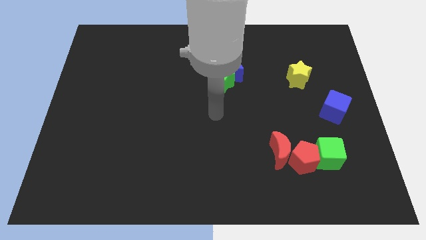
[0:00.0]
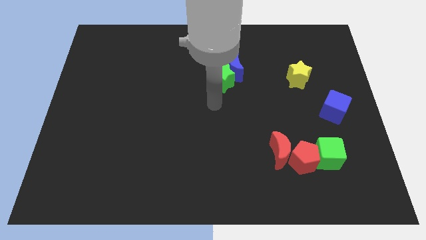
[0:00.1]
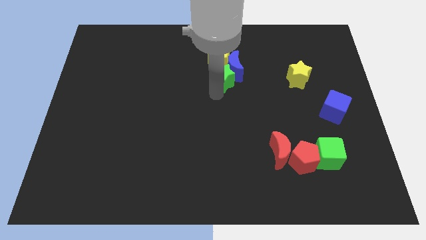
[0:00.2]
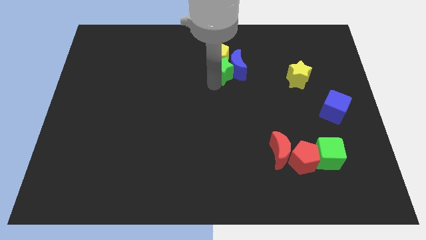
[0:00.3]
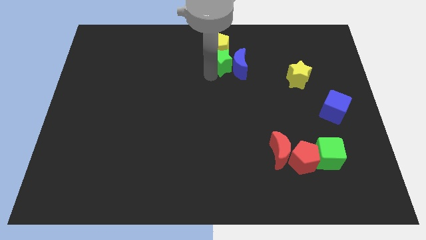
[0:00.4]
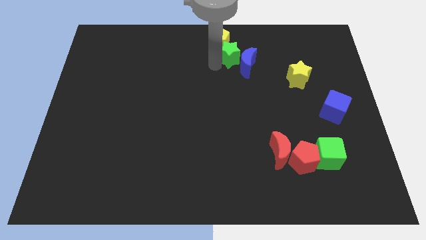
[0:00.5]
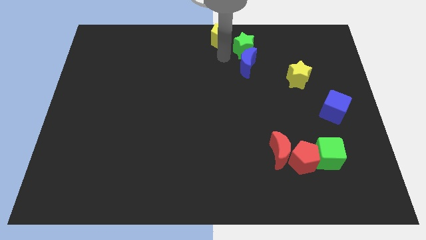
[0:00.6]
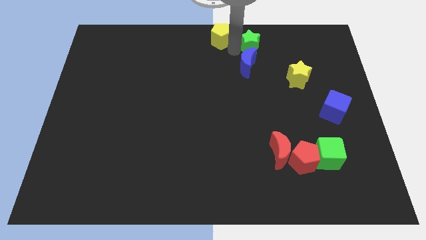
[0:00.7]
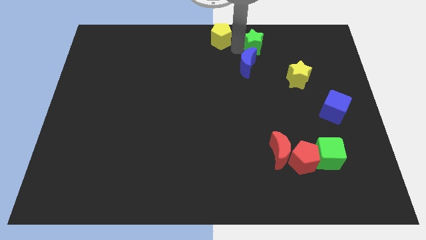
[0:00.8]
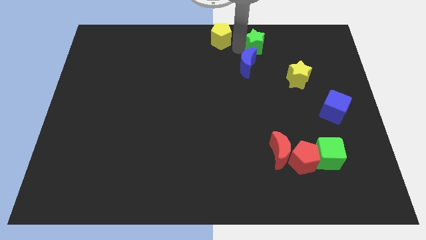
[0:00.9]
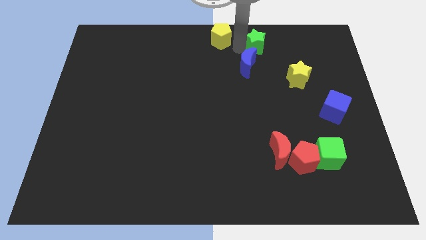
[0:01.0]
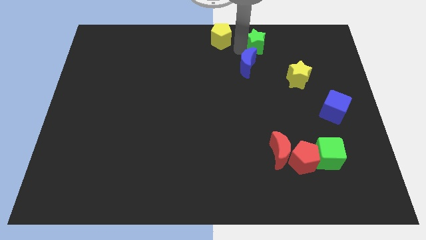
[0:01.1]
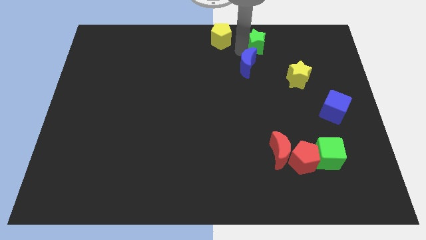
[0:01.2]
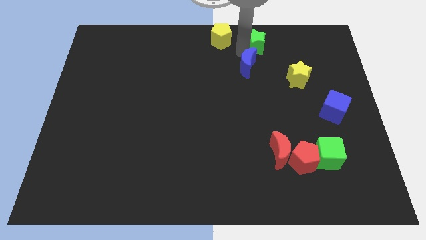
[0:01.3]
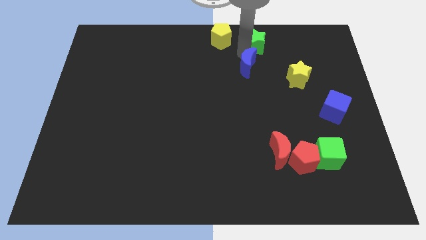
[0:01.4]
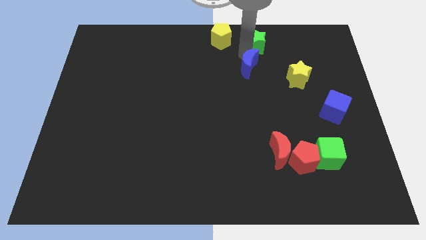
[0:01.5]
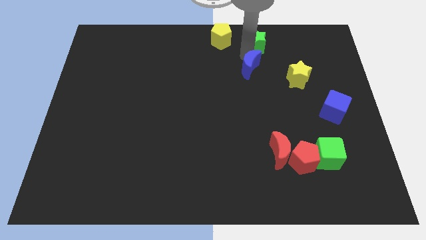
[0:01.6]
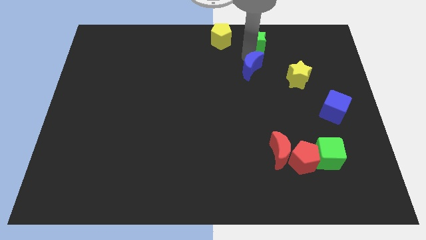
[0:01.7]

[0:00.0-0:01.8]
separate the blue moon from the green star and yellow pentagon

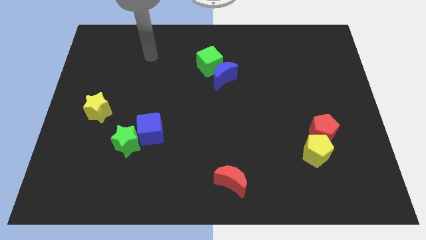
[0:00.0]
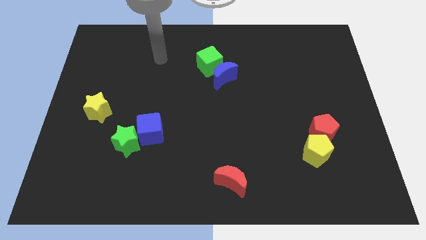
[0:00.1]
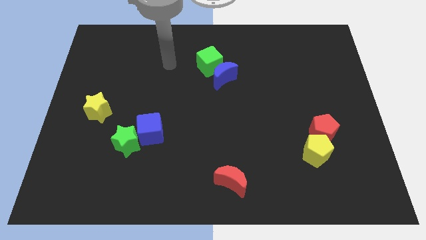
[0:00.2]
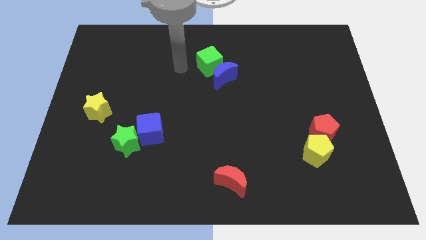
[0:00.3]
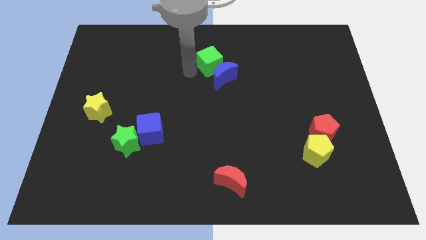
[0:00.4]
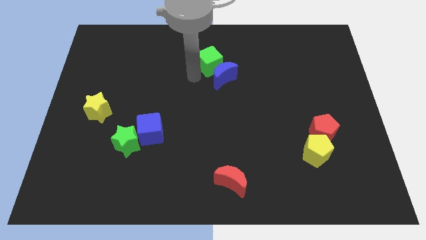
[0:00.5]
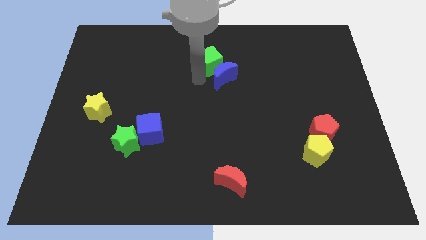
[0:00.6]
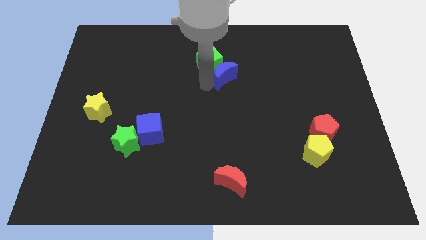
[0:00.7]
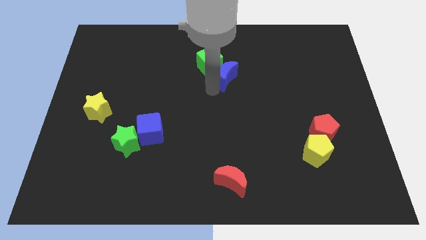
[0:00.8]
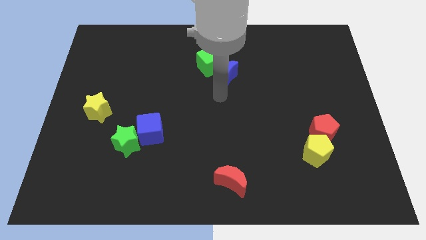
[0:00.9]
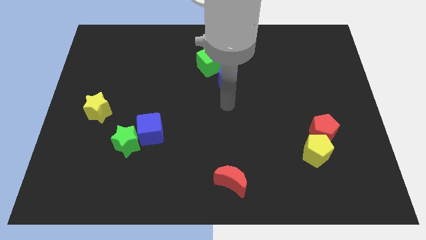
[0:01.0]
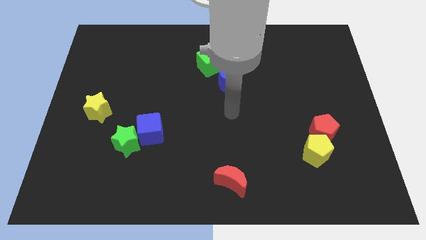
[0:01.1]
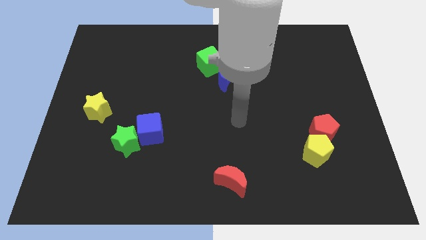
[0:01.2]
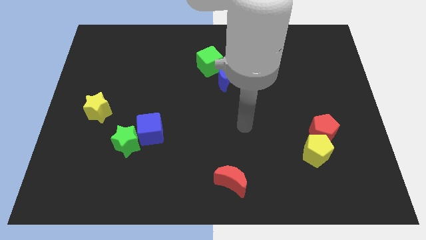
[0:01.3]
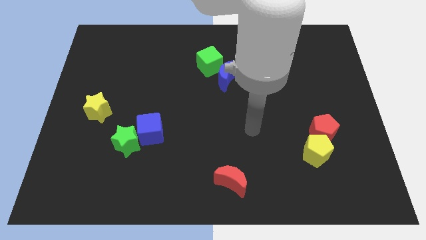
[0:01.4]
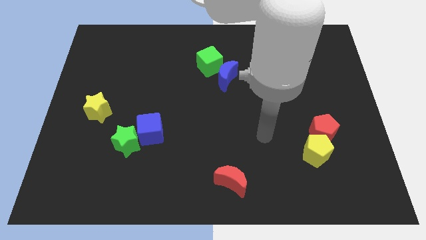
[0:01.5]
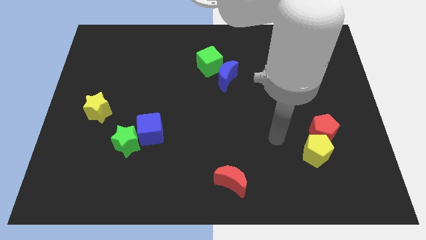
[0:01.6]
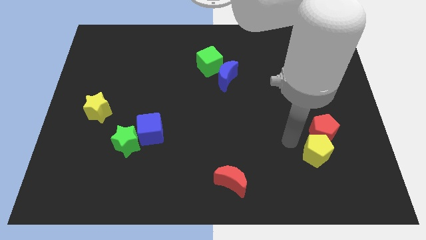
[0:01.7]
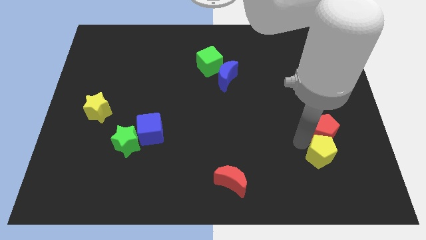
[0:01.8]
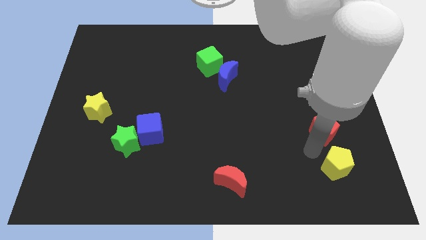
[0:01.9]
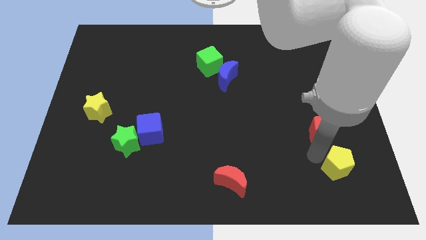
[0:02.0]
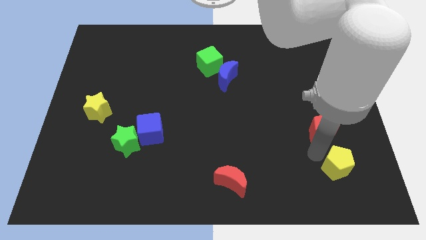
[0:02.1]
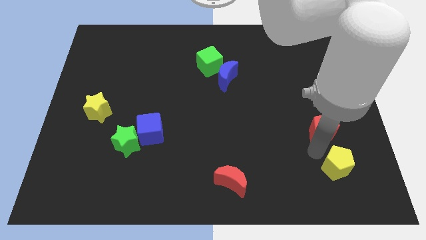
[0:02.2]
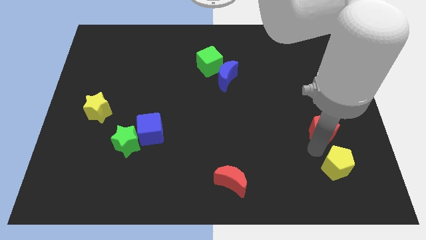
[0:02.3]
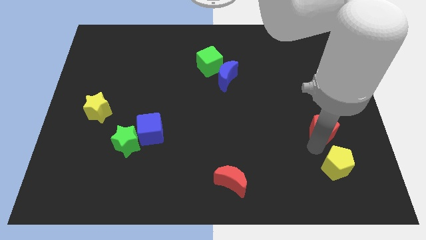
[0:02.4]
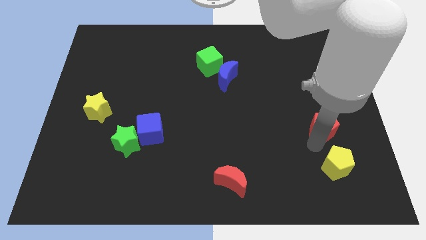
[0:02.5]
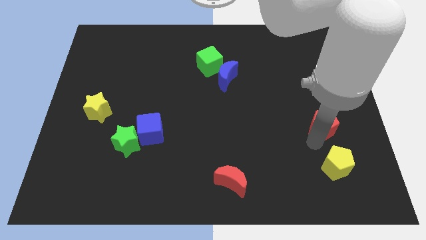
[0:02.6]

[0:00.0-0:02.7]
move the red pentagon away from the yellow pentagon

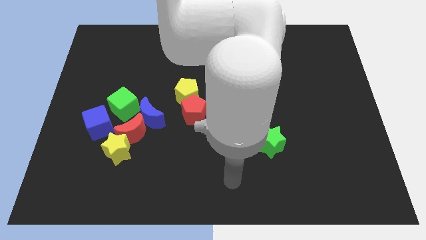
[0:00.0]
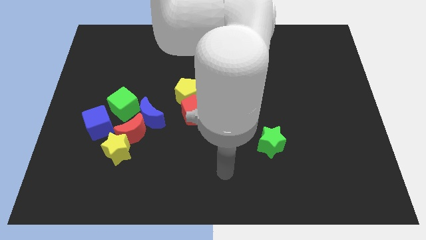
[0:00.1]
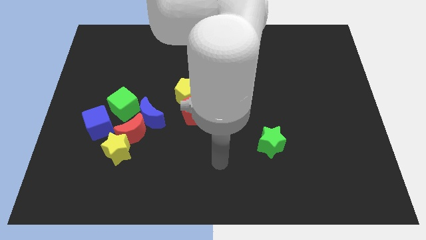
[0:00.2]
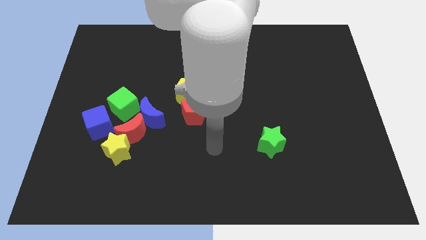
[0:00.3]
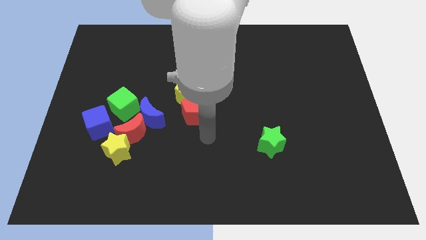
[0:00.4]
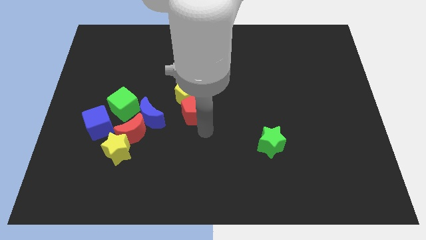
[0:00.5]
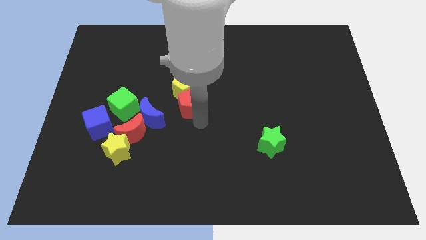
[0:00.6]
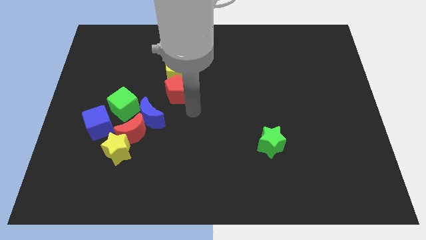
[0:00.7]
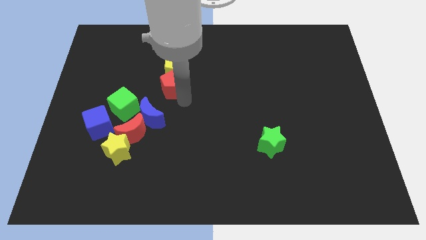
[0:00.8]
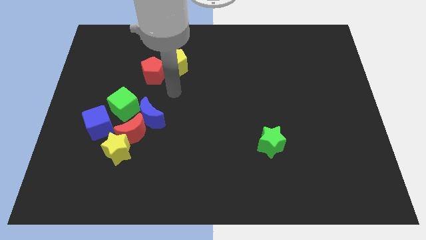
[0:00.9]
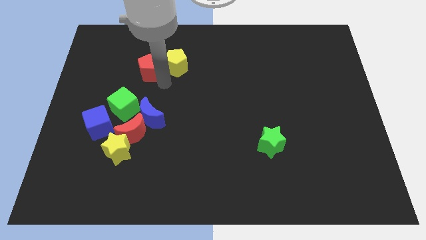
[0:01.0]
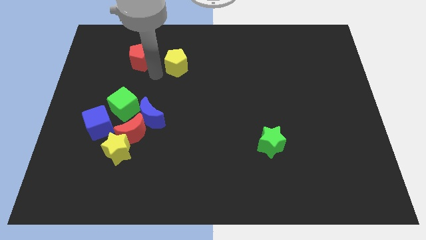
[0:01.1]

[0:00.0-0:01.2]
move the yellow pentagon away from the red pentagon

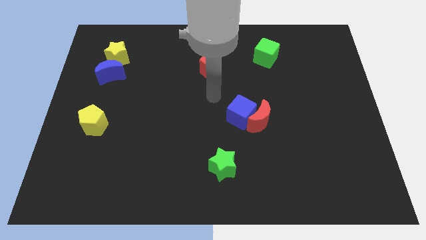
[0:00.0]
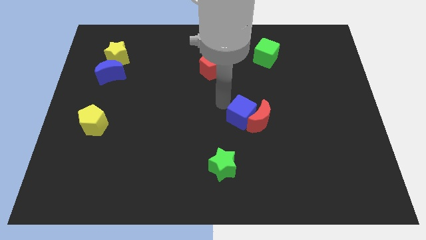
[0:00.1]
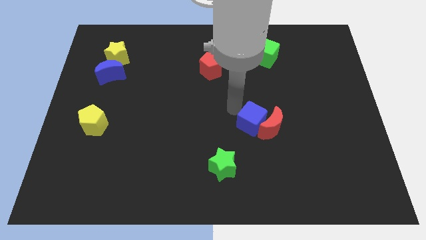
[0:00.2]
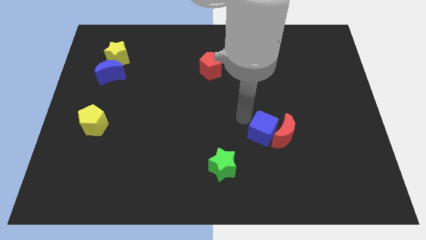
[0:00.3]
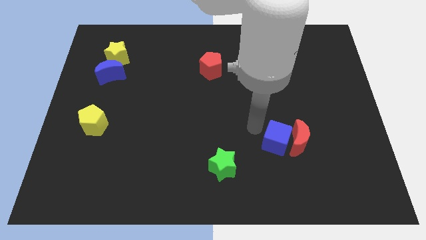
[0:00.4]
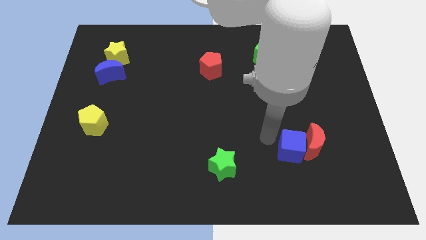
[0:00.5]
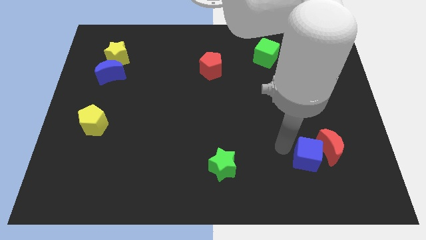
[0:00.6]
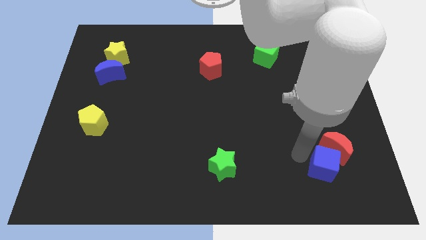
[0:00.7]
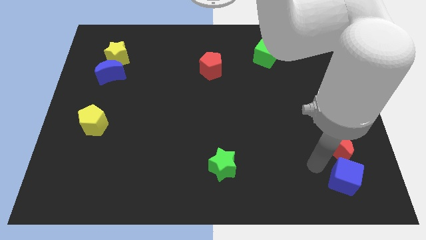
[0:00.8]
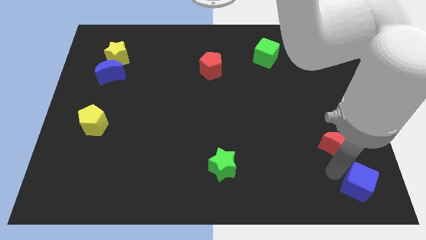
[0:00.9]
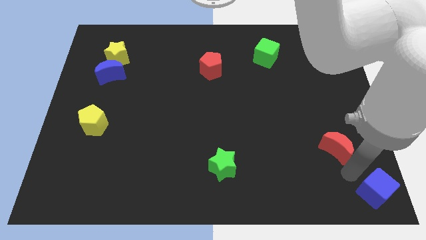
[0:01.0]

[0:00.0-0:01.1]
move the red moon away from the blue cube

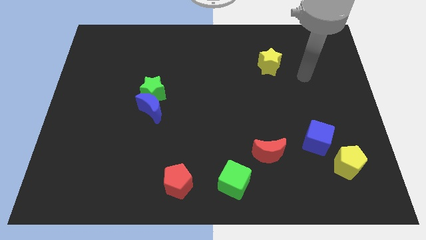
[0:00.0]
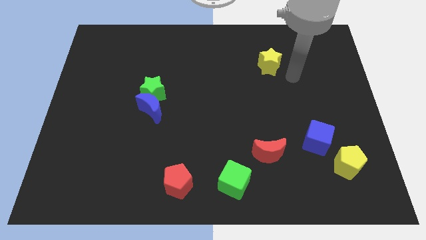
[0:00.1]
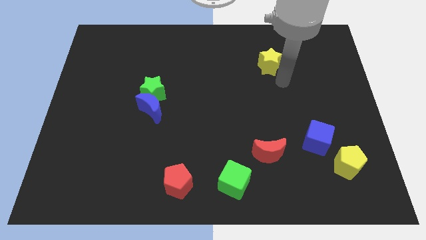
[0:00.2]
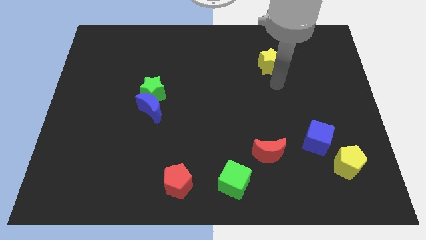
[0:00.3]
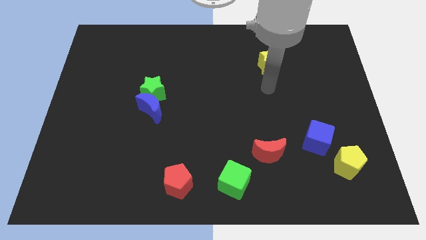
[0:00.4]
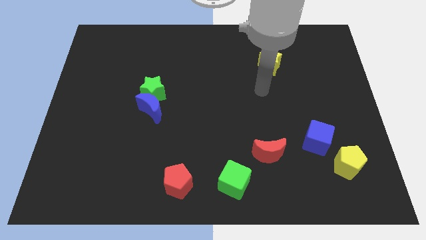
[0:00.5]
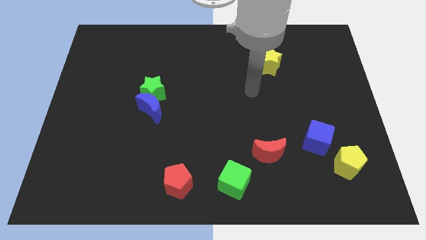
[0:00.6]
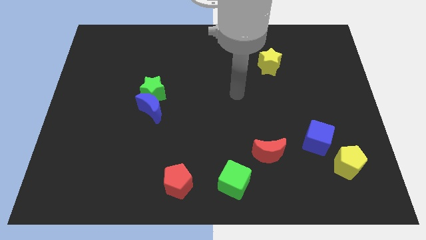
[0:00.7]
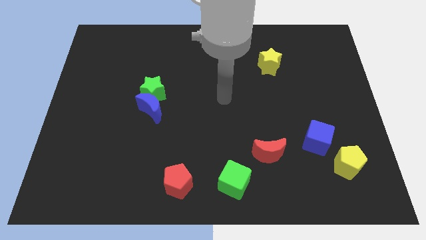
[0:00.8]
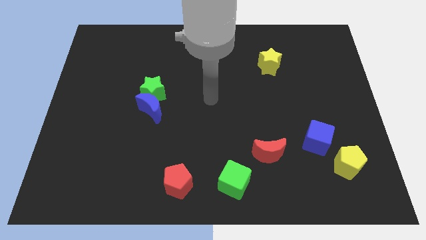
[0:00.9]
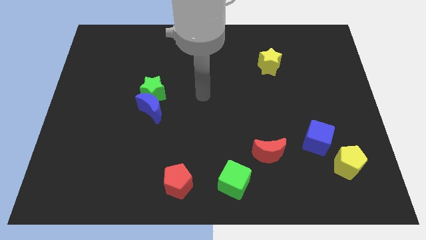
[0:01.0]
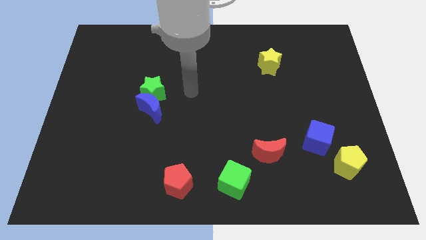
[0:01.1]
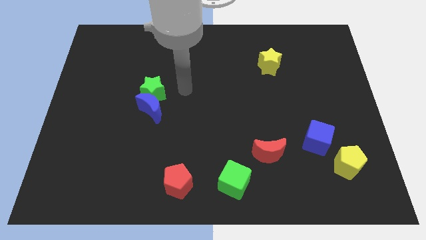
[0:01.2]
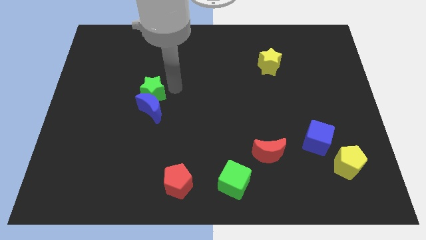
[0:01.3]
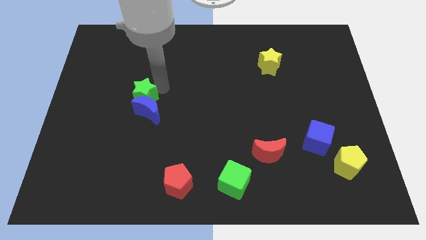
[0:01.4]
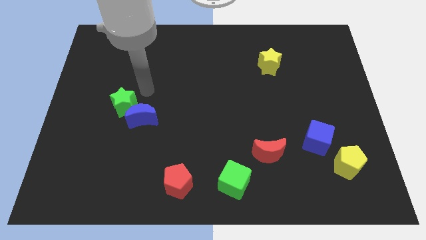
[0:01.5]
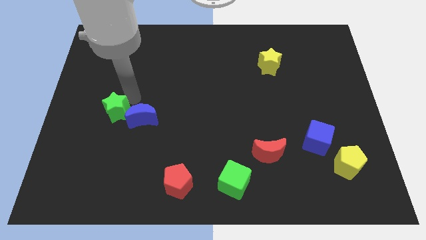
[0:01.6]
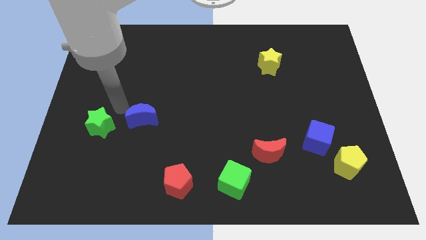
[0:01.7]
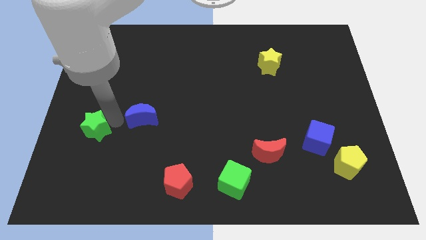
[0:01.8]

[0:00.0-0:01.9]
move the blue moon away from the green star

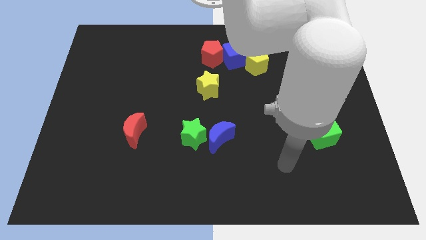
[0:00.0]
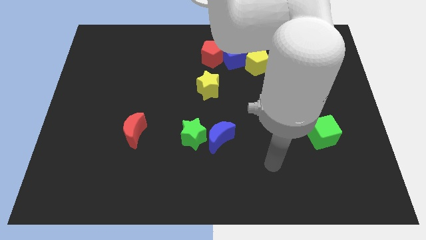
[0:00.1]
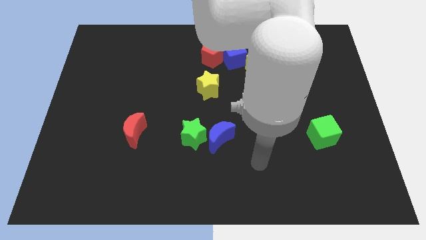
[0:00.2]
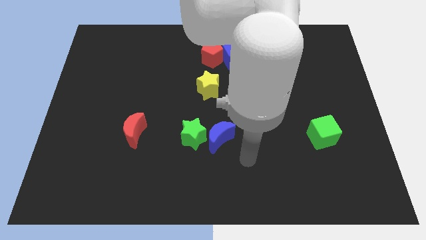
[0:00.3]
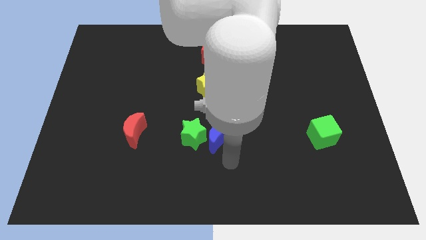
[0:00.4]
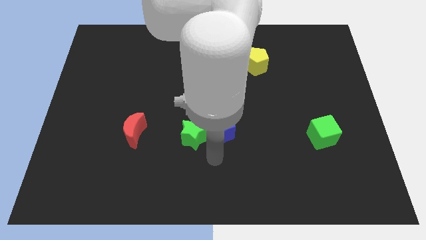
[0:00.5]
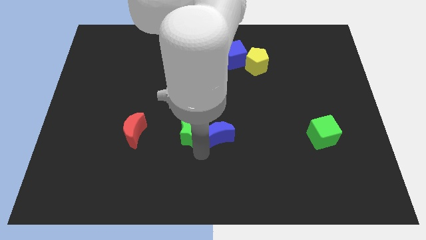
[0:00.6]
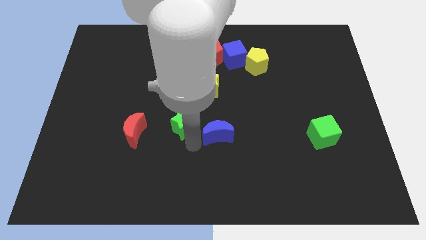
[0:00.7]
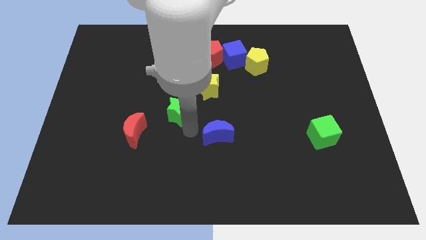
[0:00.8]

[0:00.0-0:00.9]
separate the blue moon from the green star
